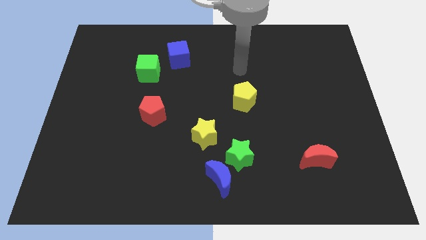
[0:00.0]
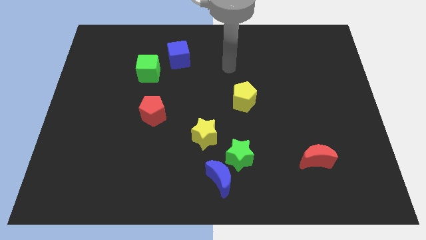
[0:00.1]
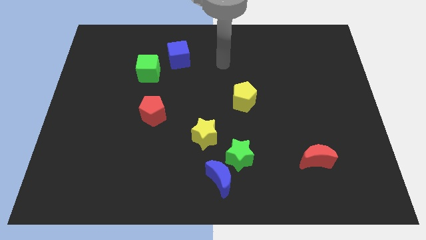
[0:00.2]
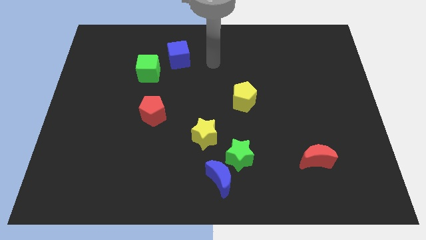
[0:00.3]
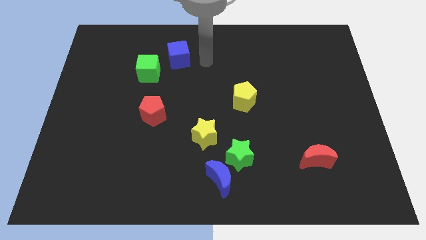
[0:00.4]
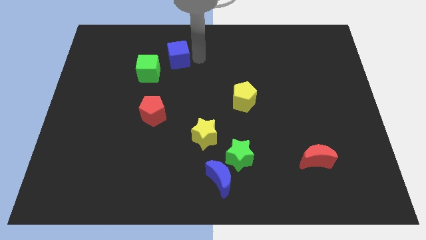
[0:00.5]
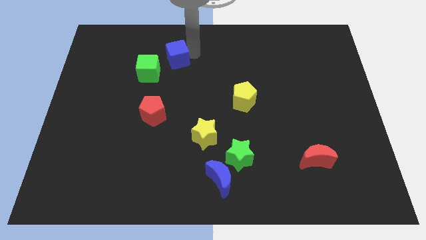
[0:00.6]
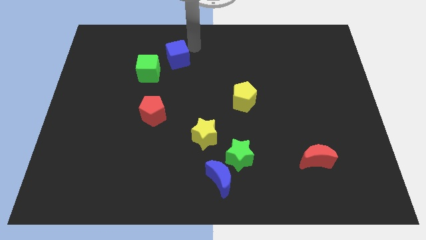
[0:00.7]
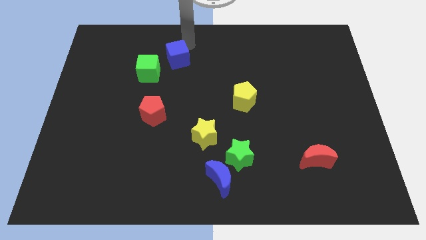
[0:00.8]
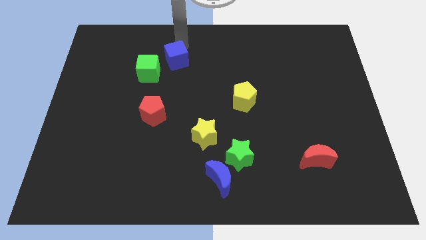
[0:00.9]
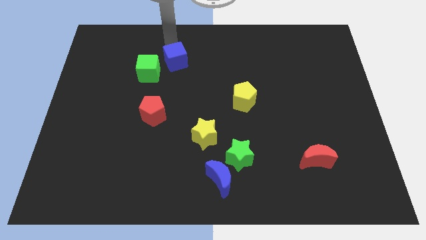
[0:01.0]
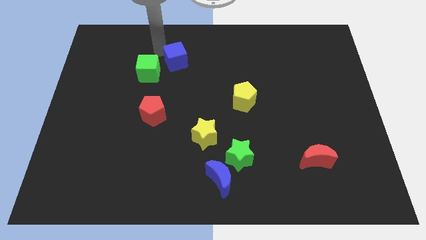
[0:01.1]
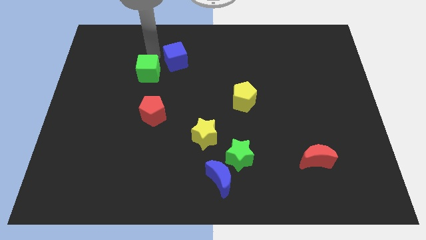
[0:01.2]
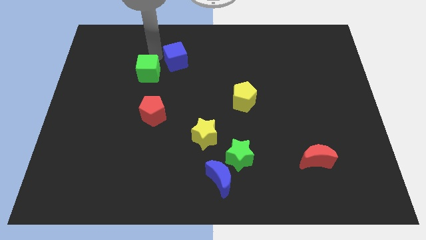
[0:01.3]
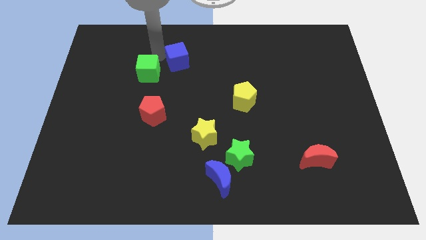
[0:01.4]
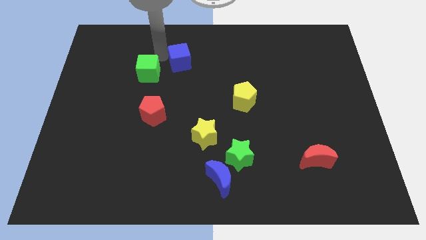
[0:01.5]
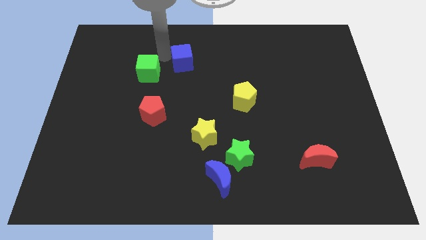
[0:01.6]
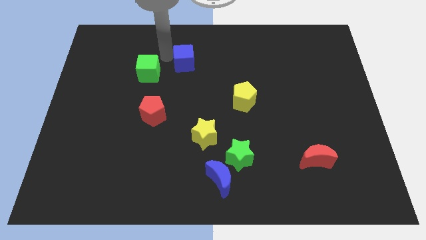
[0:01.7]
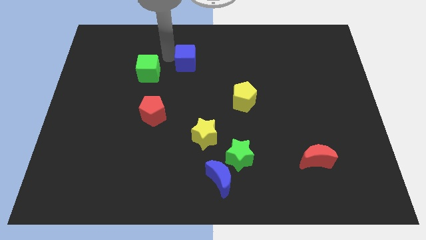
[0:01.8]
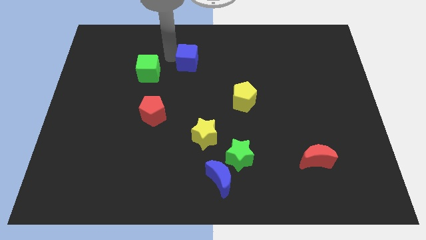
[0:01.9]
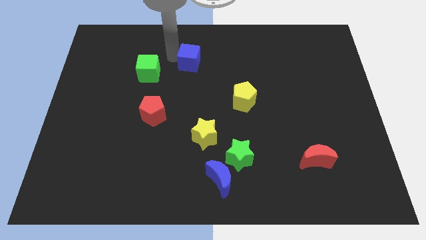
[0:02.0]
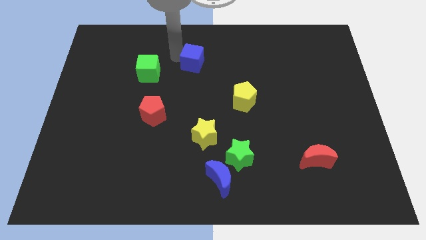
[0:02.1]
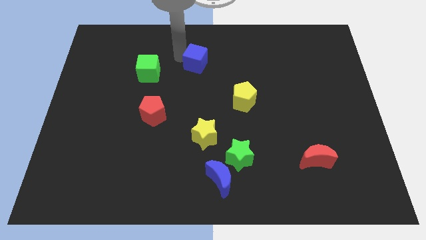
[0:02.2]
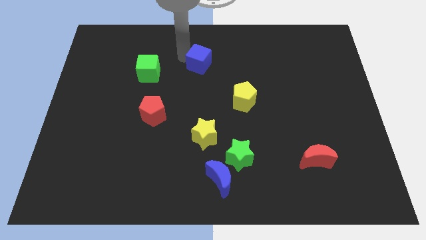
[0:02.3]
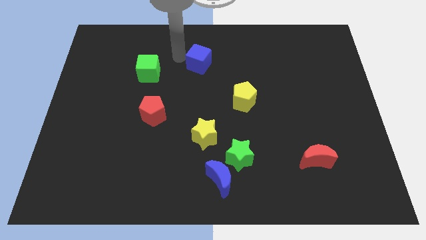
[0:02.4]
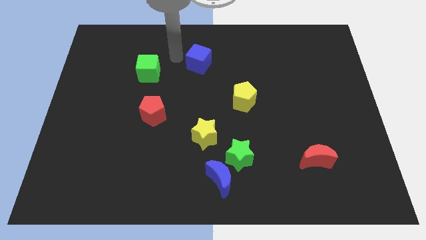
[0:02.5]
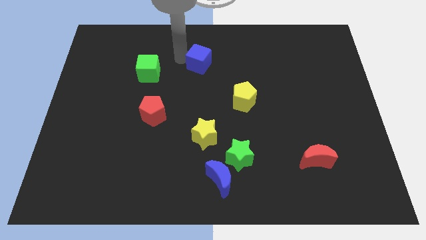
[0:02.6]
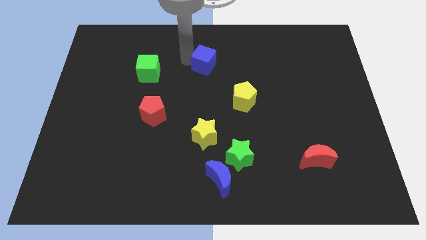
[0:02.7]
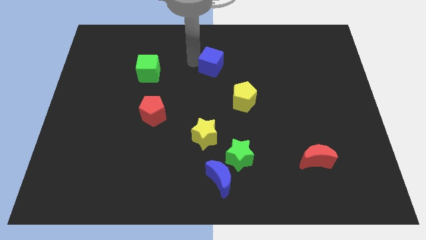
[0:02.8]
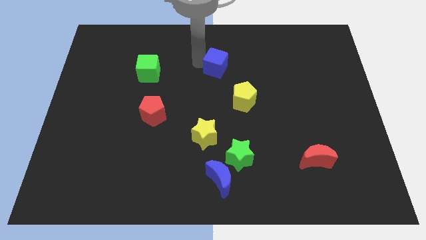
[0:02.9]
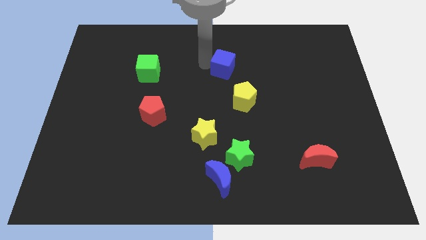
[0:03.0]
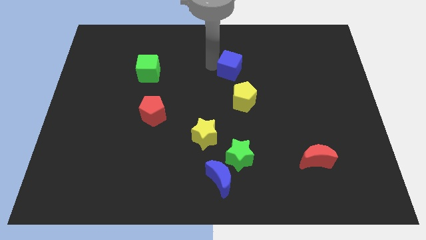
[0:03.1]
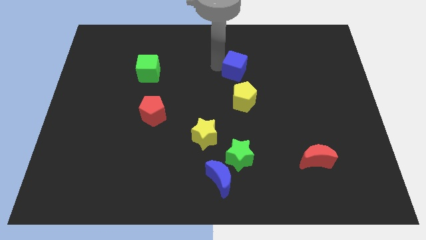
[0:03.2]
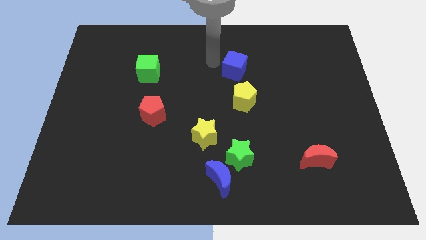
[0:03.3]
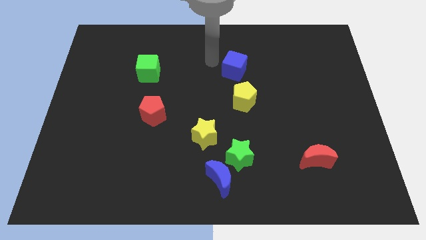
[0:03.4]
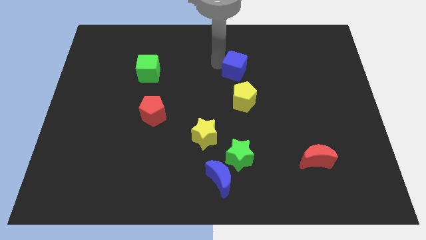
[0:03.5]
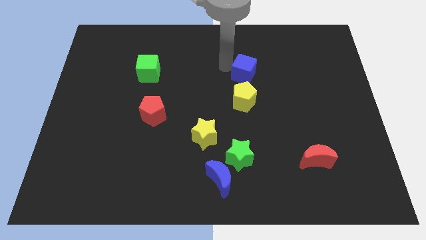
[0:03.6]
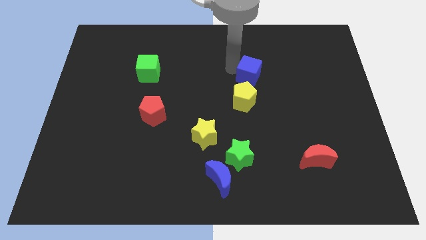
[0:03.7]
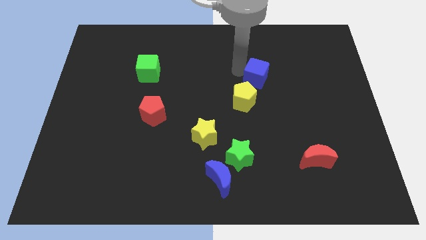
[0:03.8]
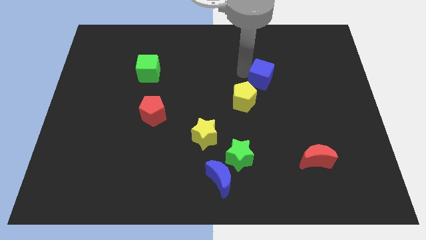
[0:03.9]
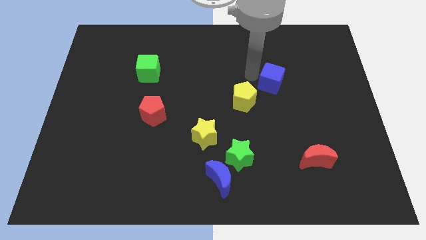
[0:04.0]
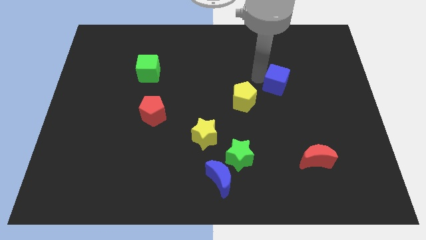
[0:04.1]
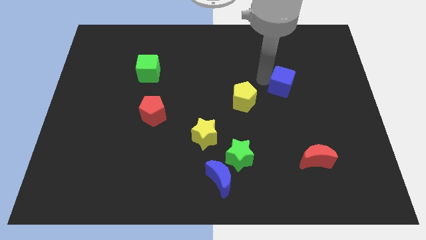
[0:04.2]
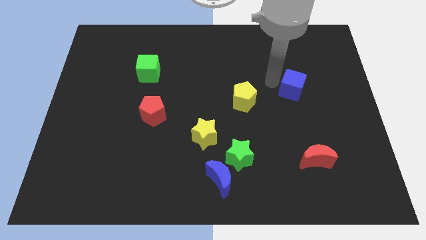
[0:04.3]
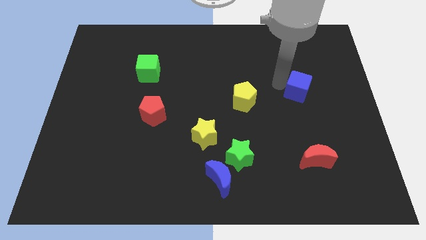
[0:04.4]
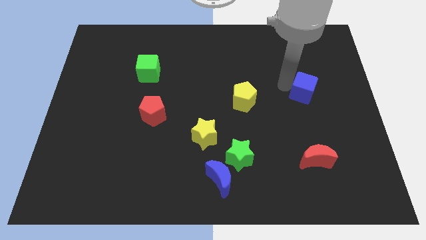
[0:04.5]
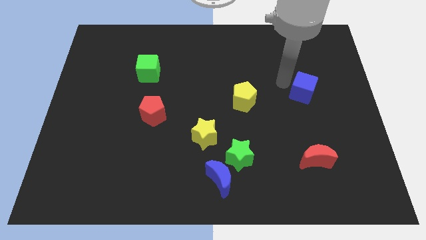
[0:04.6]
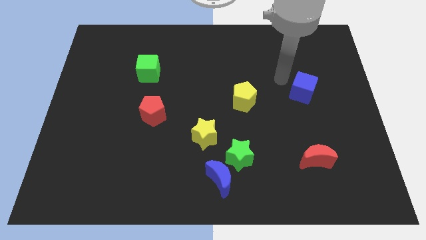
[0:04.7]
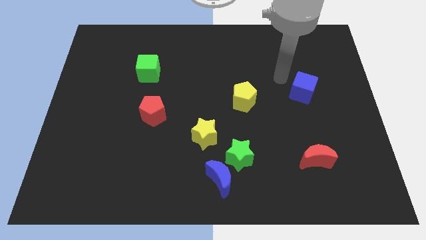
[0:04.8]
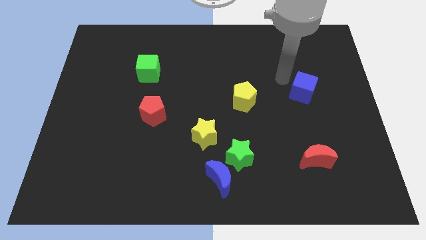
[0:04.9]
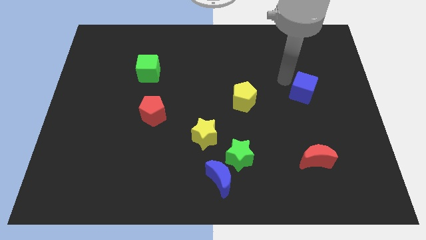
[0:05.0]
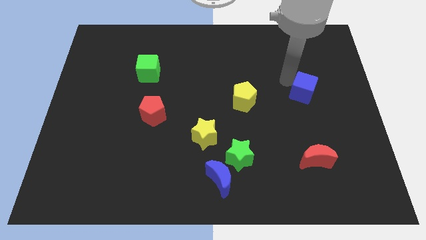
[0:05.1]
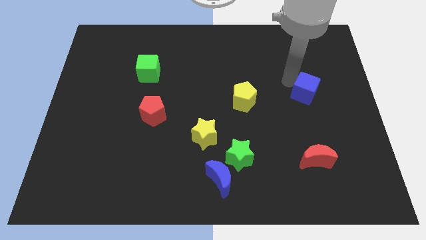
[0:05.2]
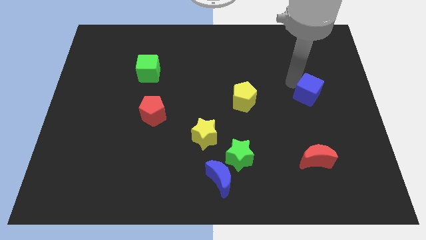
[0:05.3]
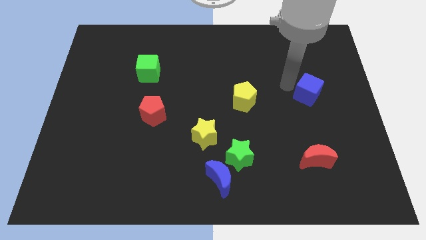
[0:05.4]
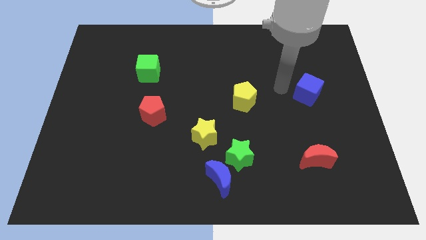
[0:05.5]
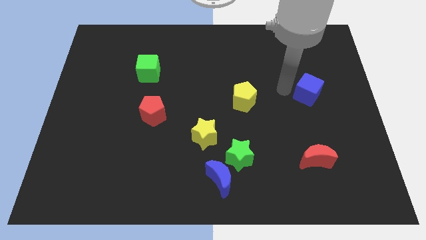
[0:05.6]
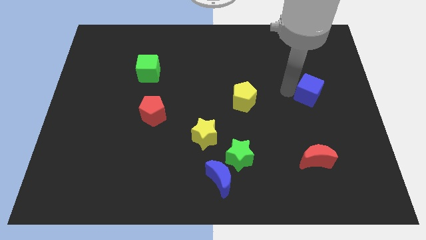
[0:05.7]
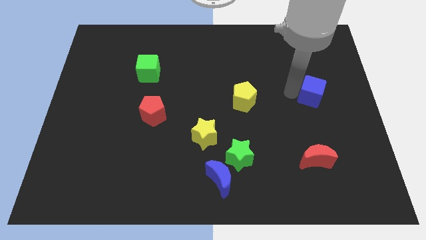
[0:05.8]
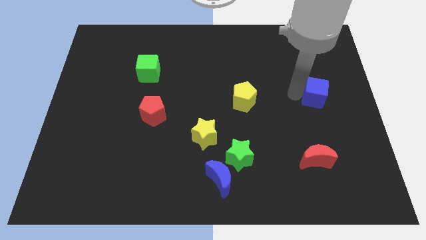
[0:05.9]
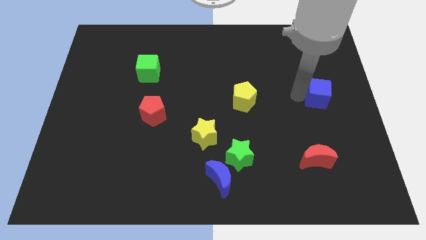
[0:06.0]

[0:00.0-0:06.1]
put the blue cube to the right side

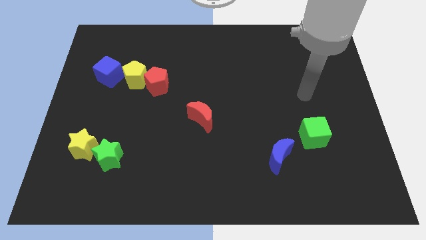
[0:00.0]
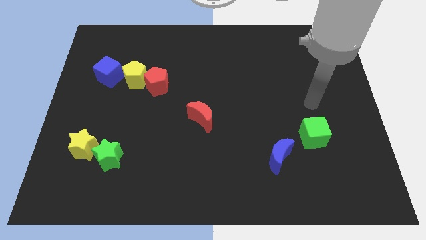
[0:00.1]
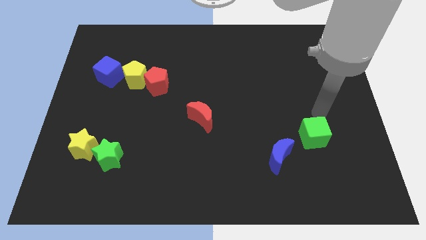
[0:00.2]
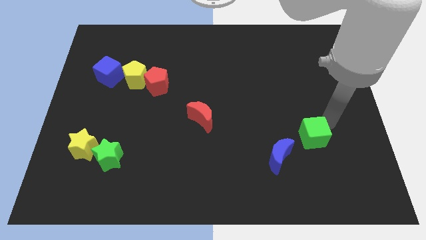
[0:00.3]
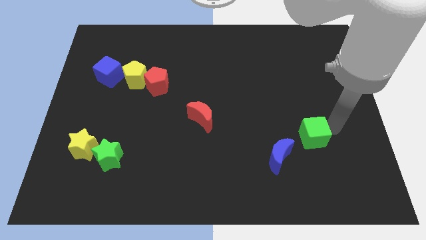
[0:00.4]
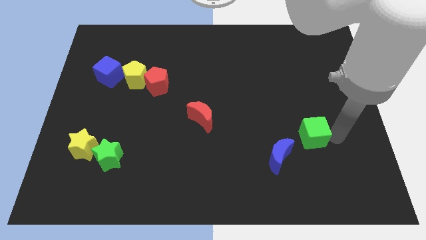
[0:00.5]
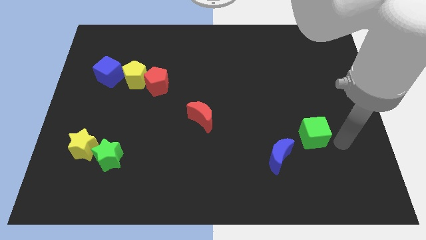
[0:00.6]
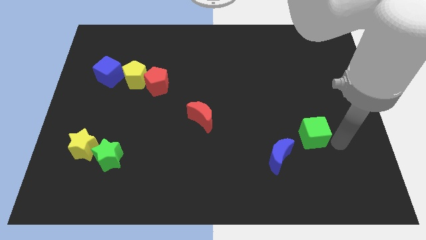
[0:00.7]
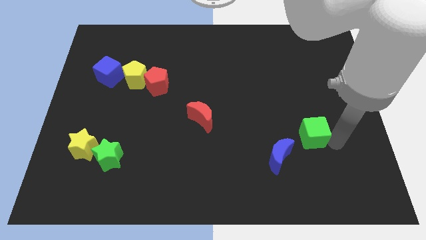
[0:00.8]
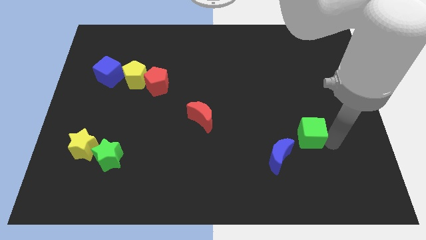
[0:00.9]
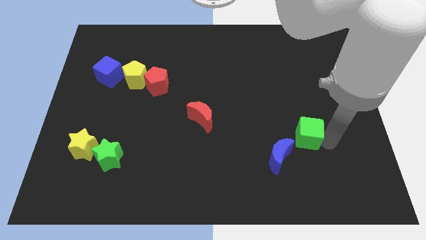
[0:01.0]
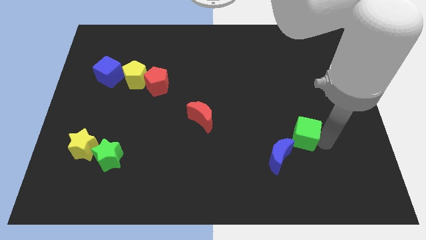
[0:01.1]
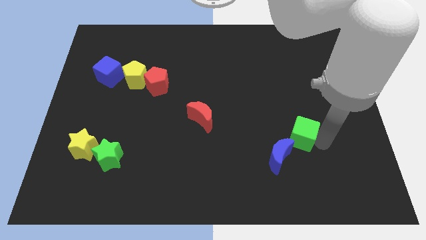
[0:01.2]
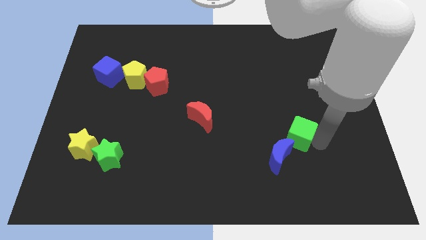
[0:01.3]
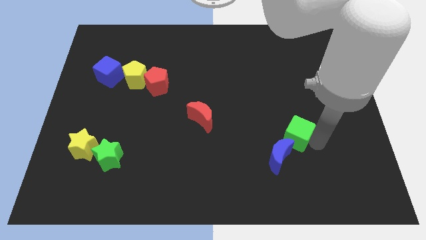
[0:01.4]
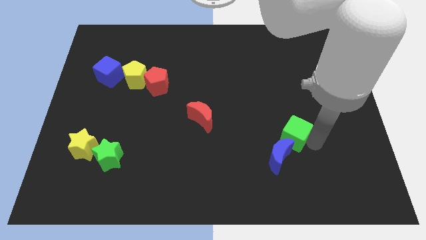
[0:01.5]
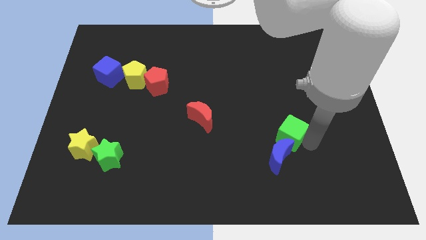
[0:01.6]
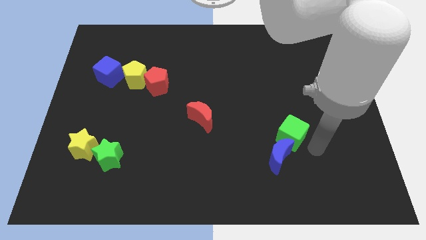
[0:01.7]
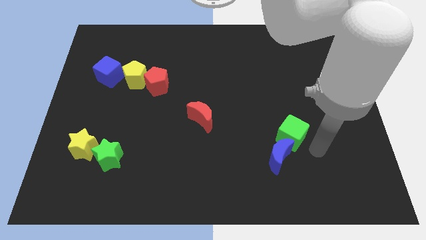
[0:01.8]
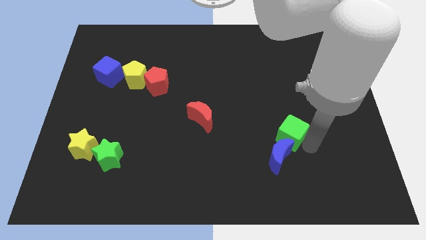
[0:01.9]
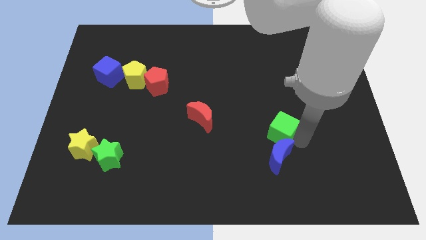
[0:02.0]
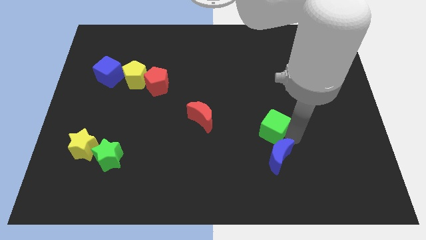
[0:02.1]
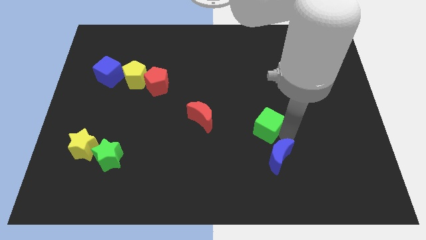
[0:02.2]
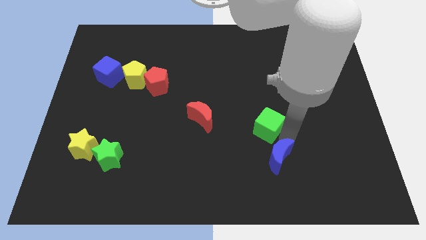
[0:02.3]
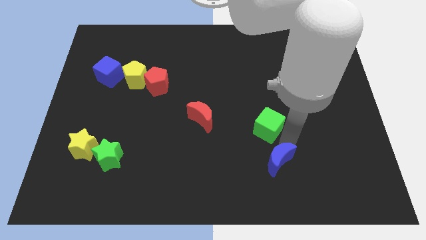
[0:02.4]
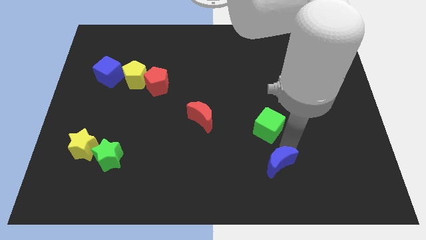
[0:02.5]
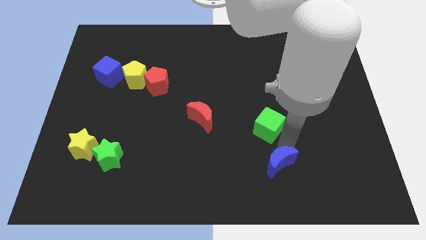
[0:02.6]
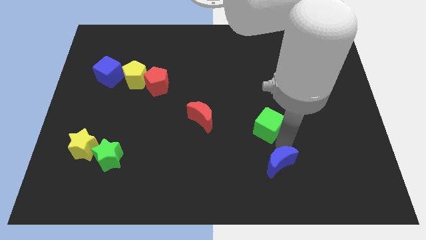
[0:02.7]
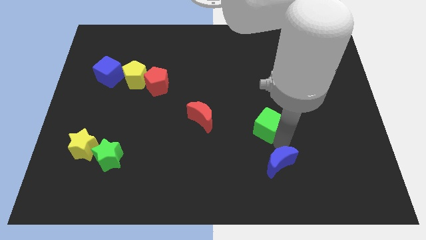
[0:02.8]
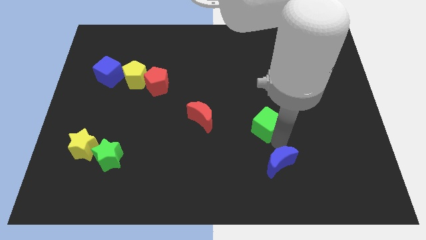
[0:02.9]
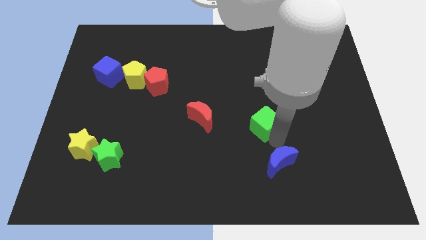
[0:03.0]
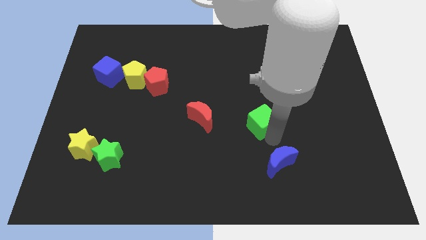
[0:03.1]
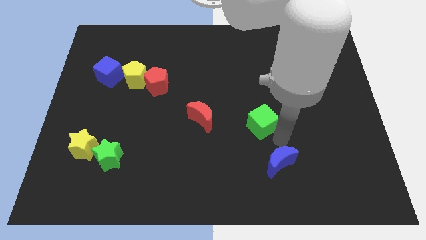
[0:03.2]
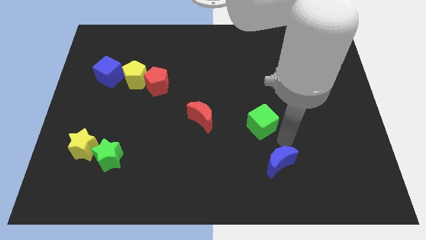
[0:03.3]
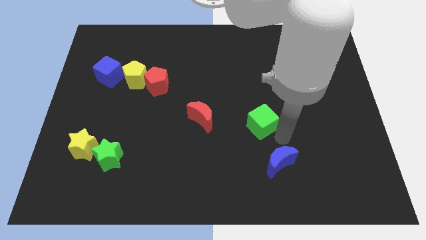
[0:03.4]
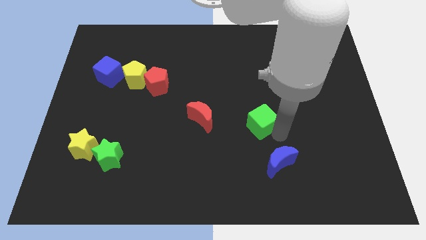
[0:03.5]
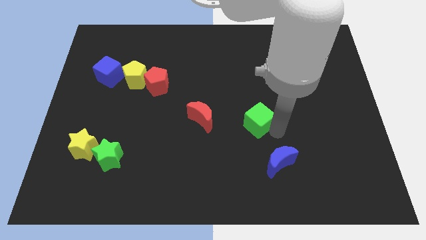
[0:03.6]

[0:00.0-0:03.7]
push the green cube to the center of the board
